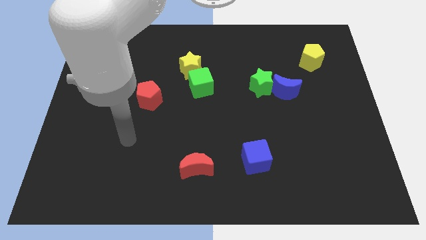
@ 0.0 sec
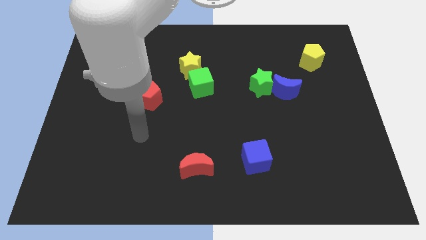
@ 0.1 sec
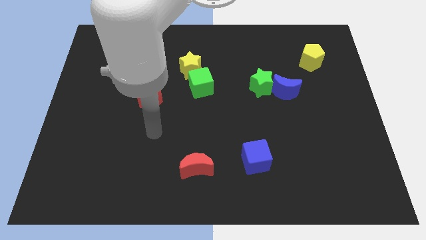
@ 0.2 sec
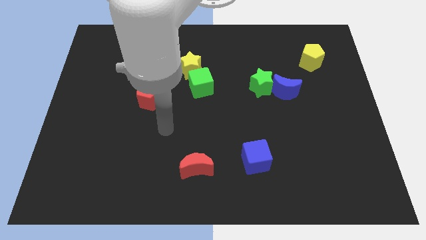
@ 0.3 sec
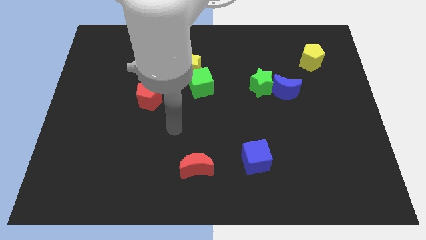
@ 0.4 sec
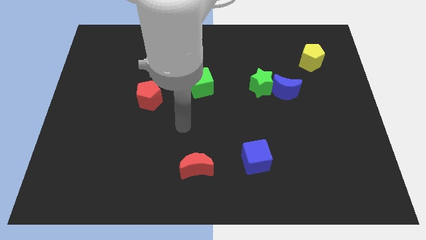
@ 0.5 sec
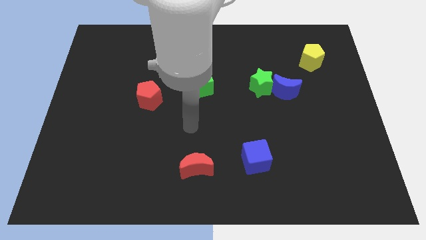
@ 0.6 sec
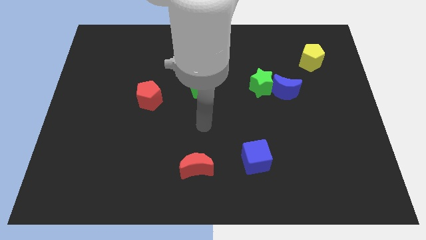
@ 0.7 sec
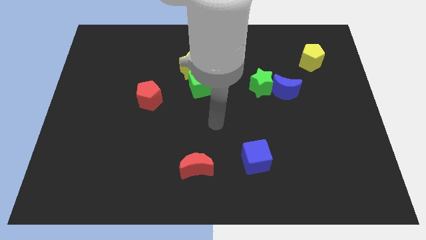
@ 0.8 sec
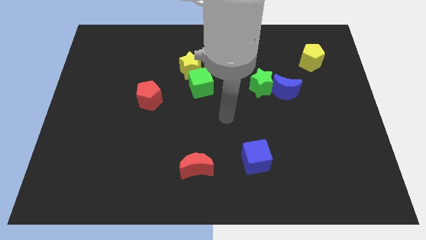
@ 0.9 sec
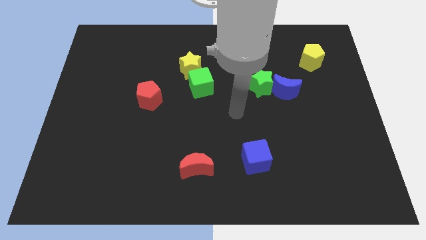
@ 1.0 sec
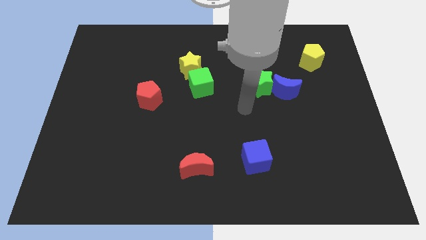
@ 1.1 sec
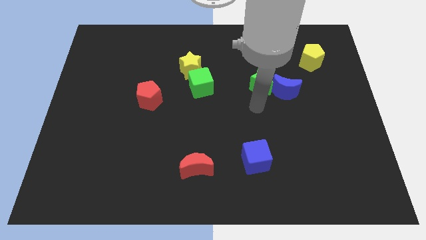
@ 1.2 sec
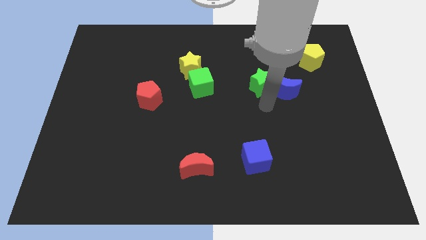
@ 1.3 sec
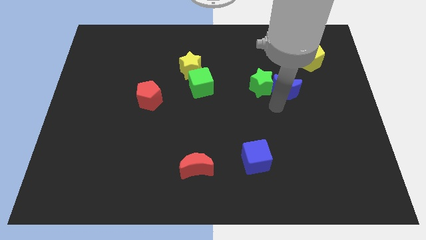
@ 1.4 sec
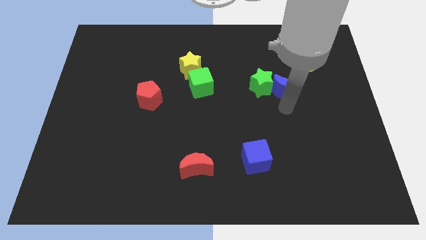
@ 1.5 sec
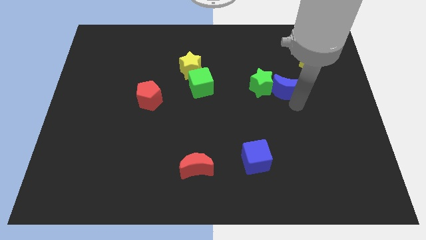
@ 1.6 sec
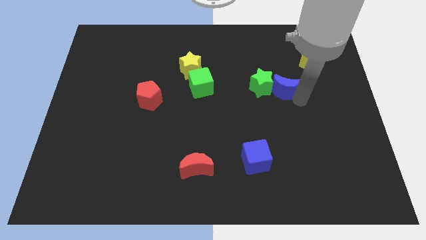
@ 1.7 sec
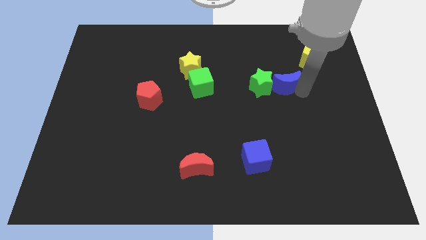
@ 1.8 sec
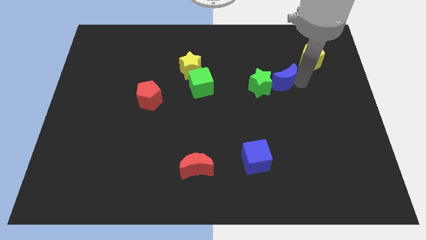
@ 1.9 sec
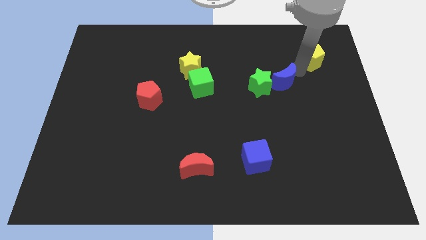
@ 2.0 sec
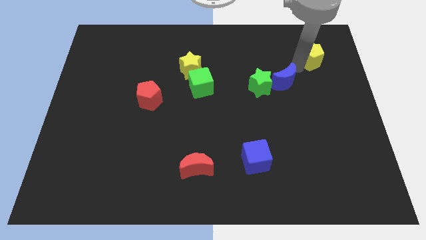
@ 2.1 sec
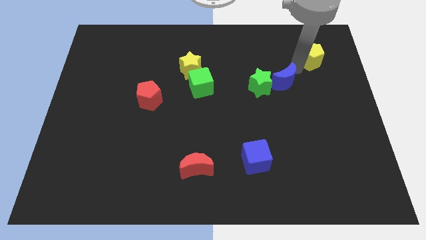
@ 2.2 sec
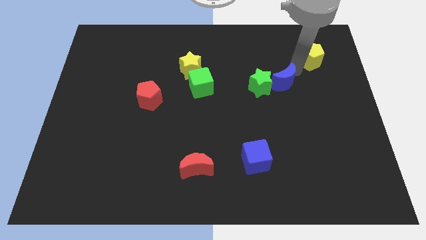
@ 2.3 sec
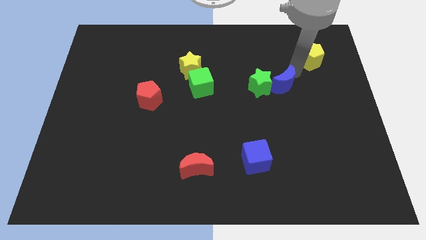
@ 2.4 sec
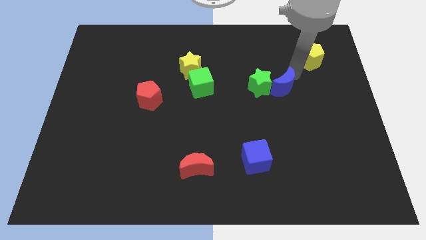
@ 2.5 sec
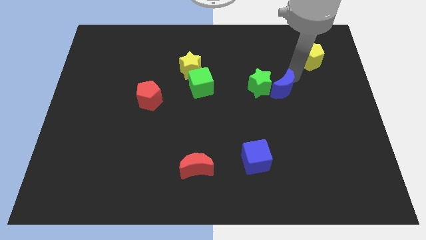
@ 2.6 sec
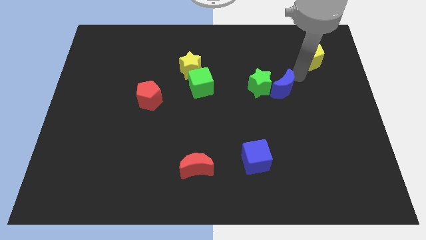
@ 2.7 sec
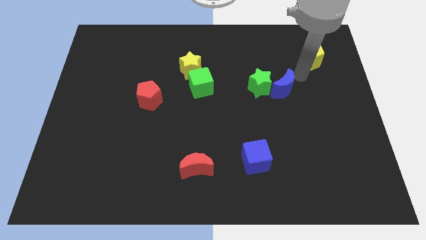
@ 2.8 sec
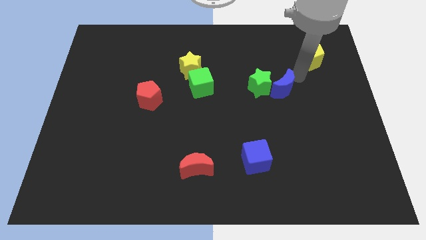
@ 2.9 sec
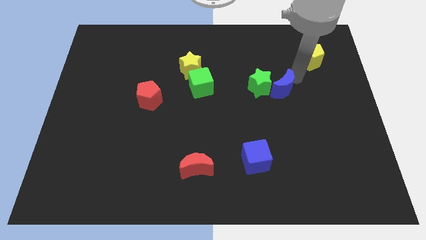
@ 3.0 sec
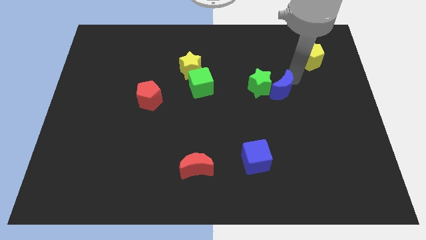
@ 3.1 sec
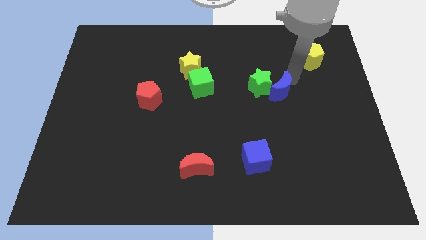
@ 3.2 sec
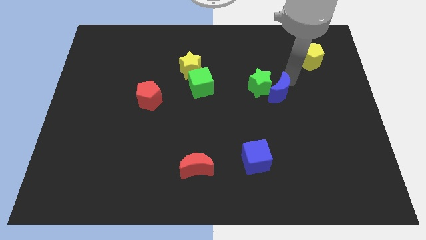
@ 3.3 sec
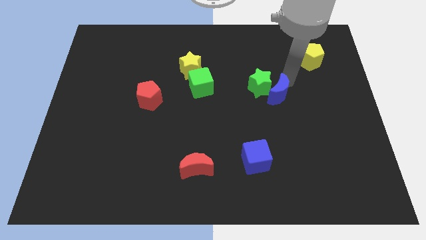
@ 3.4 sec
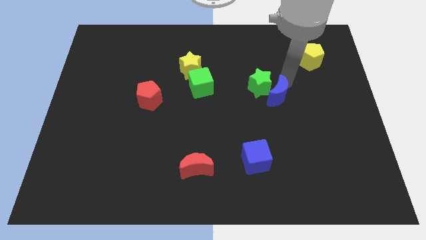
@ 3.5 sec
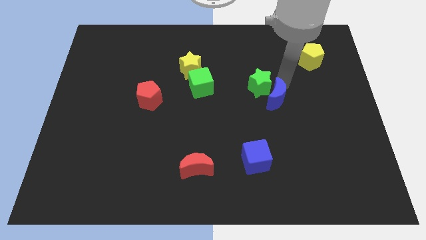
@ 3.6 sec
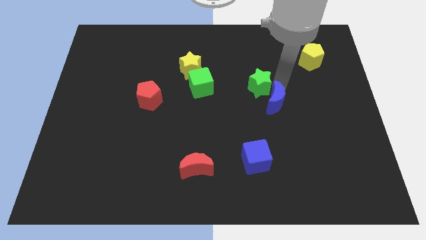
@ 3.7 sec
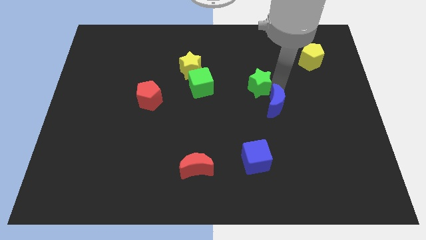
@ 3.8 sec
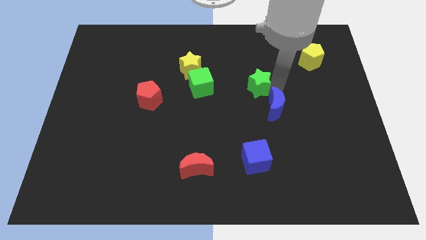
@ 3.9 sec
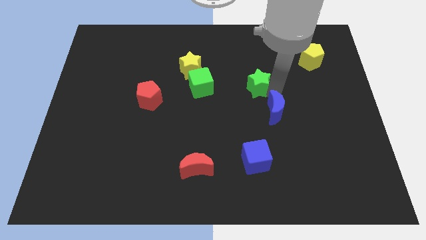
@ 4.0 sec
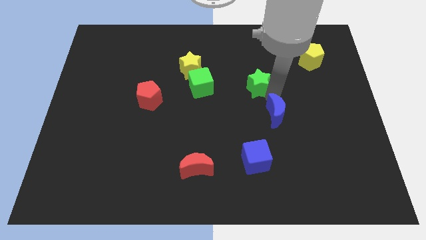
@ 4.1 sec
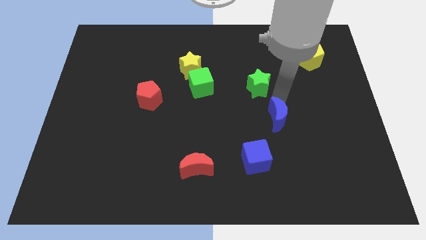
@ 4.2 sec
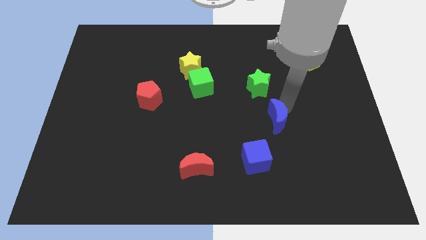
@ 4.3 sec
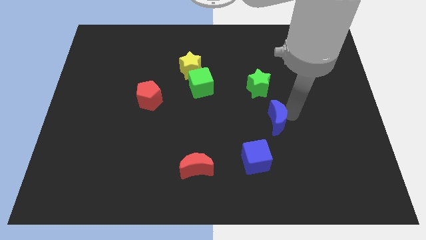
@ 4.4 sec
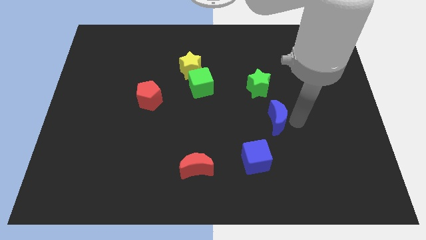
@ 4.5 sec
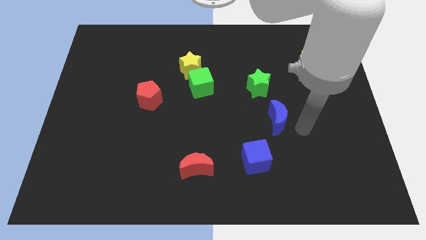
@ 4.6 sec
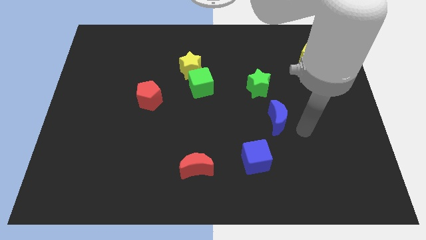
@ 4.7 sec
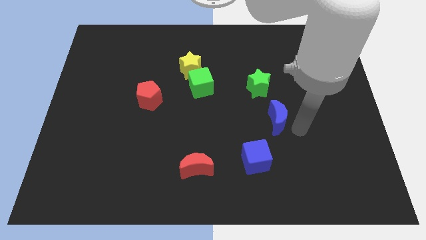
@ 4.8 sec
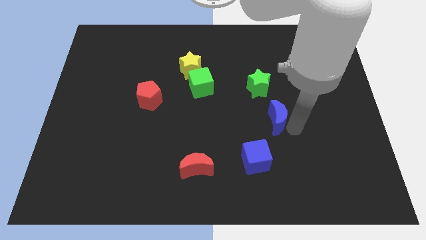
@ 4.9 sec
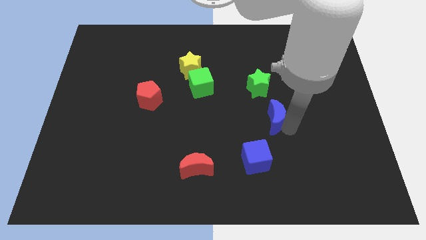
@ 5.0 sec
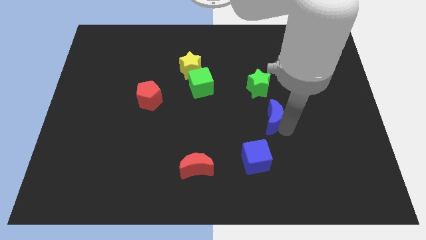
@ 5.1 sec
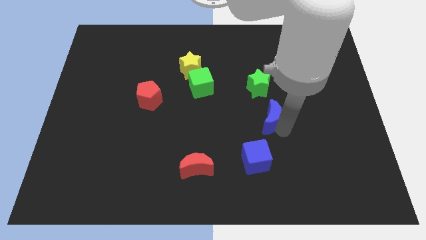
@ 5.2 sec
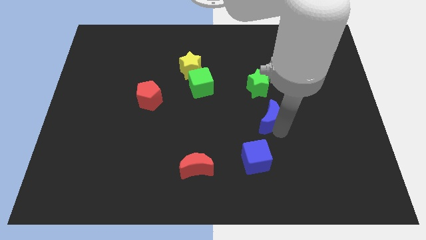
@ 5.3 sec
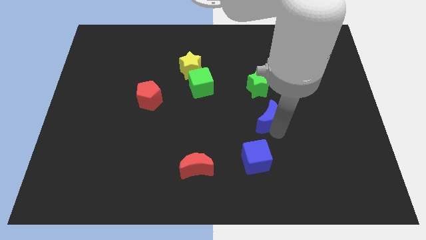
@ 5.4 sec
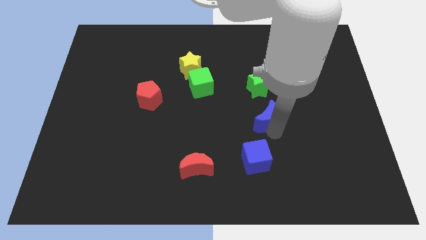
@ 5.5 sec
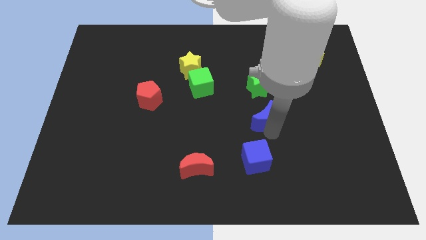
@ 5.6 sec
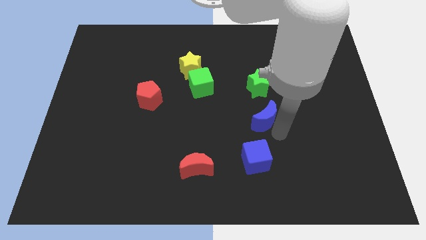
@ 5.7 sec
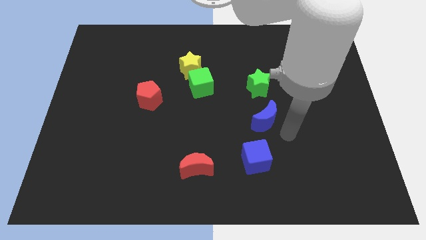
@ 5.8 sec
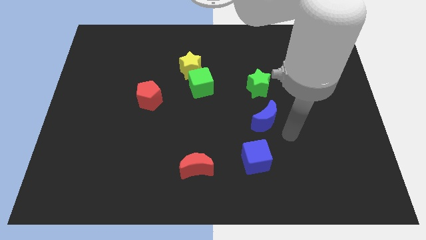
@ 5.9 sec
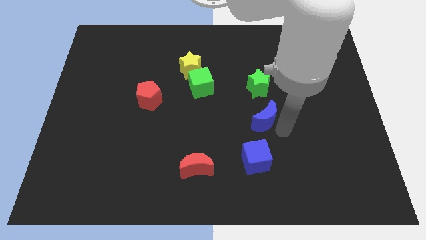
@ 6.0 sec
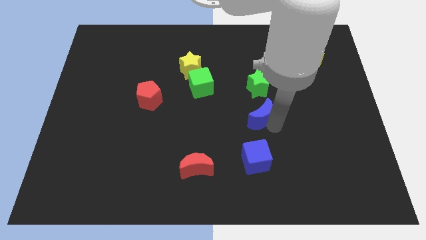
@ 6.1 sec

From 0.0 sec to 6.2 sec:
push the blue moon to the middle of the board

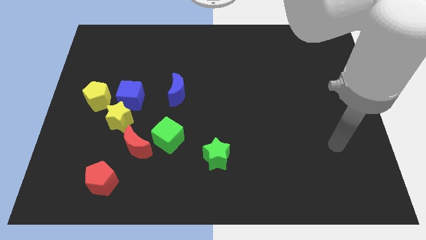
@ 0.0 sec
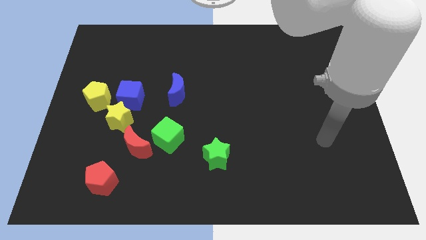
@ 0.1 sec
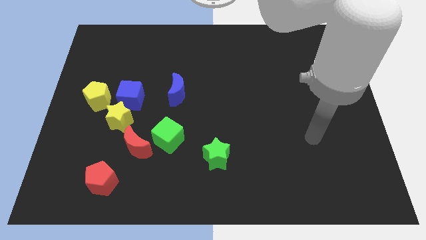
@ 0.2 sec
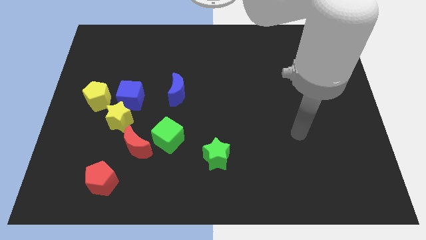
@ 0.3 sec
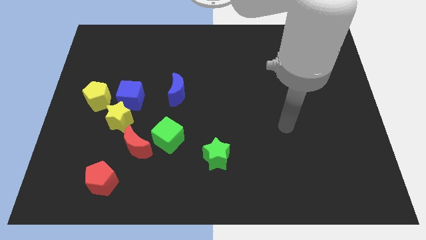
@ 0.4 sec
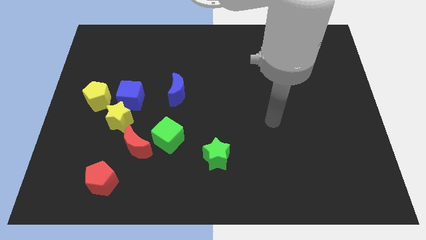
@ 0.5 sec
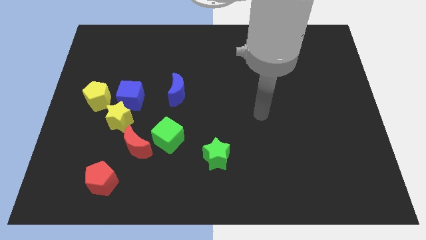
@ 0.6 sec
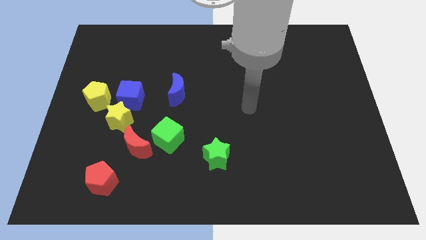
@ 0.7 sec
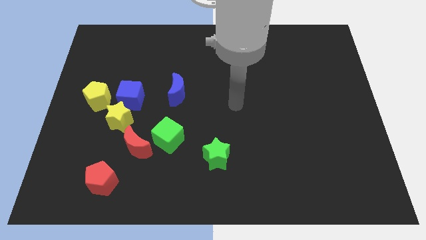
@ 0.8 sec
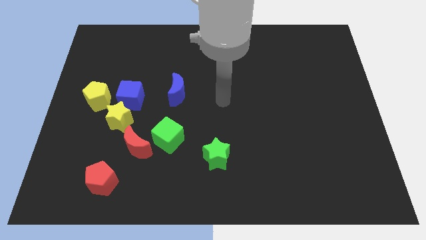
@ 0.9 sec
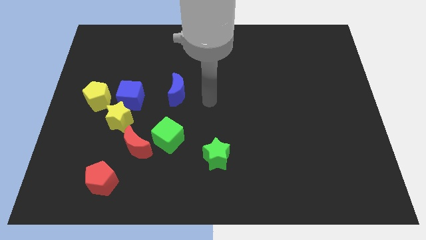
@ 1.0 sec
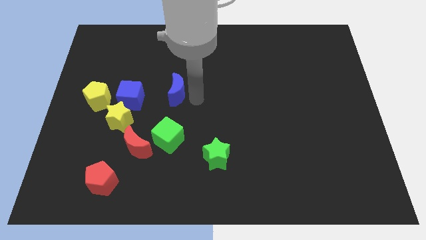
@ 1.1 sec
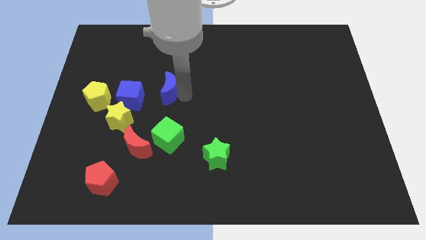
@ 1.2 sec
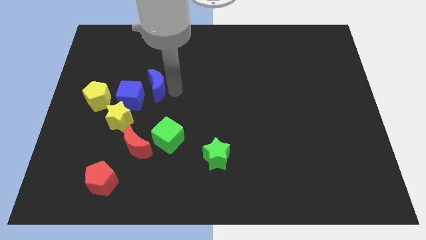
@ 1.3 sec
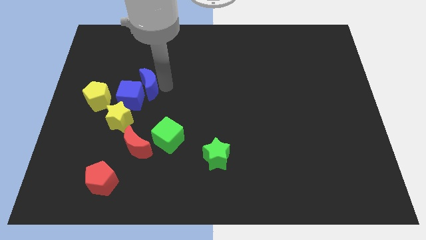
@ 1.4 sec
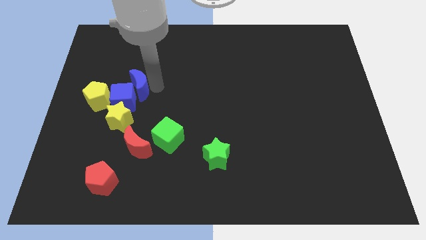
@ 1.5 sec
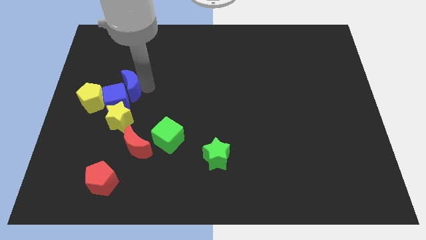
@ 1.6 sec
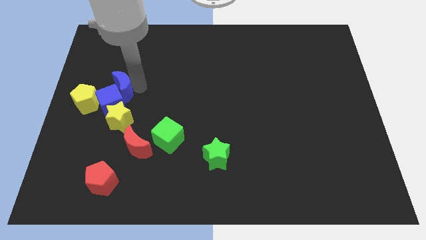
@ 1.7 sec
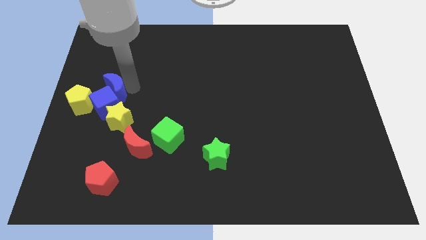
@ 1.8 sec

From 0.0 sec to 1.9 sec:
push the blue cube to the left side
